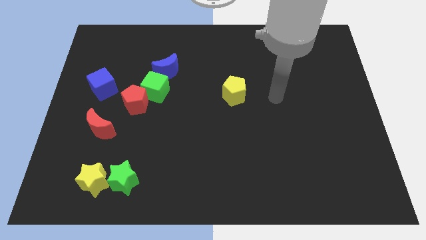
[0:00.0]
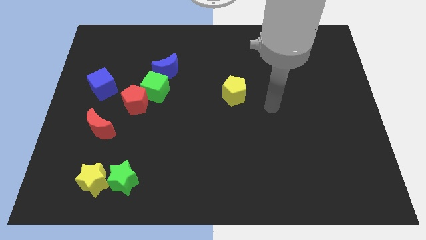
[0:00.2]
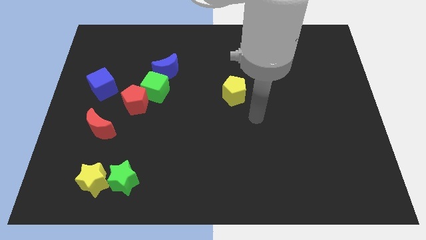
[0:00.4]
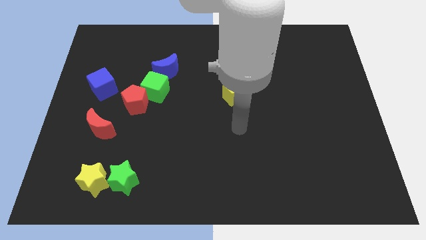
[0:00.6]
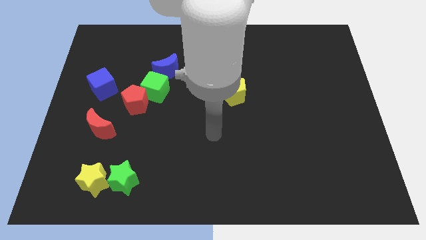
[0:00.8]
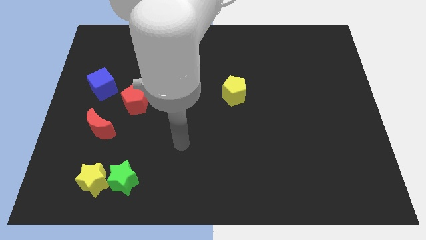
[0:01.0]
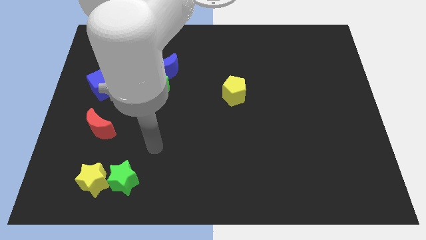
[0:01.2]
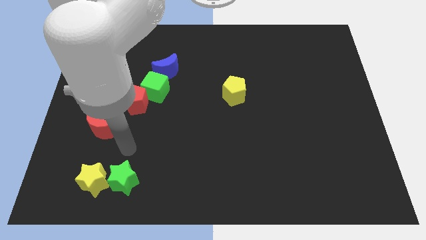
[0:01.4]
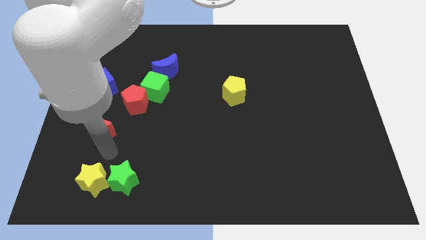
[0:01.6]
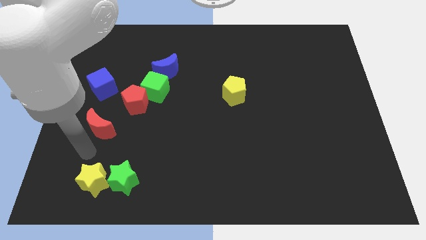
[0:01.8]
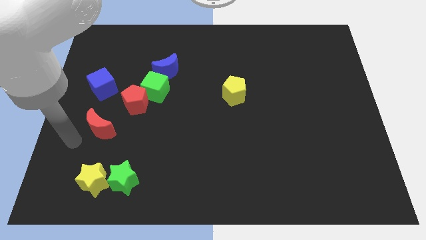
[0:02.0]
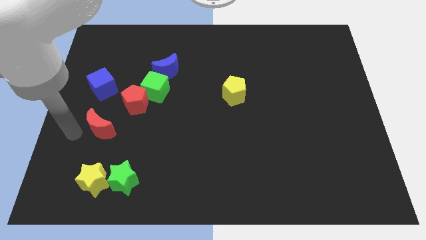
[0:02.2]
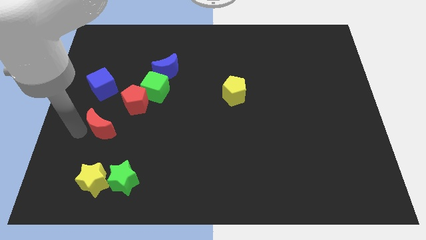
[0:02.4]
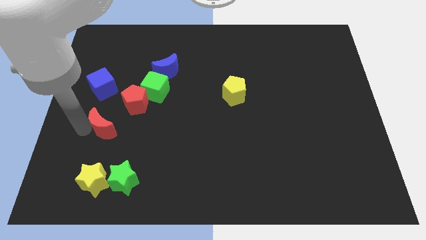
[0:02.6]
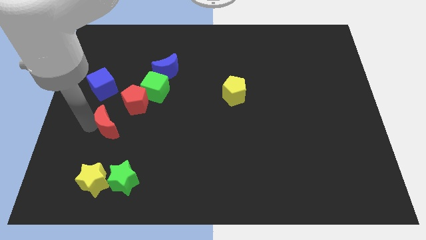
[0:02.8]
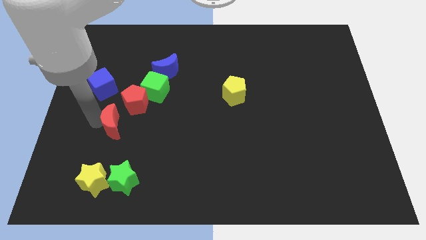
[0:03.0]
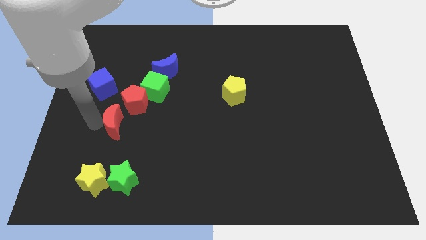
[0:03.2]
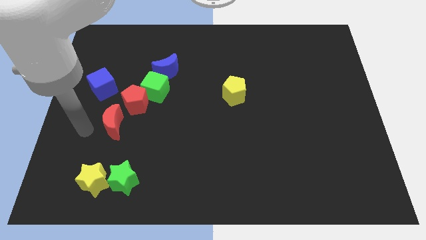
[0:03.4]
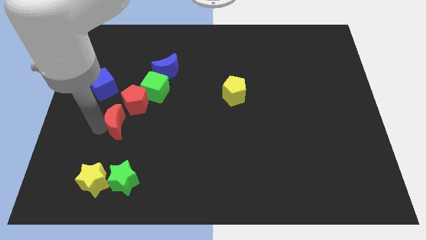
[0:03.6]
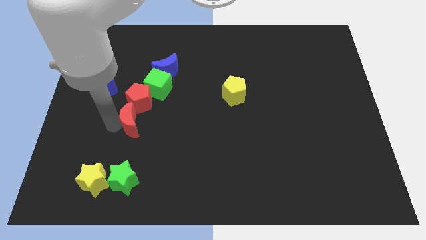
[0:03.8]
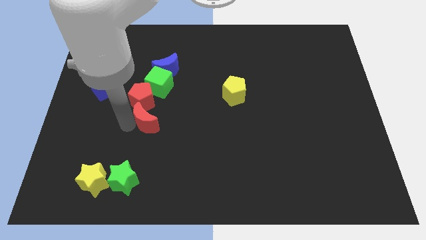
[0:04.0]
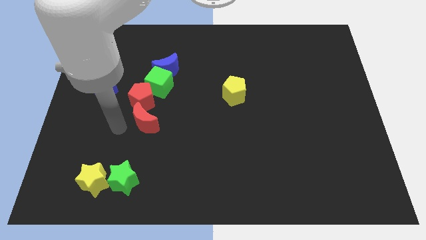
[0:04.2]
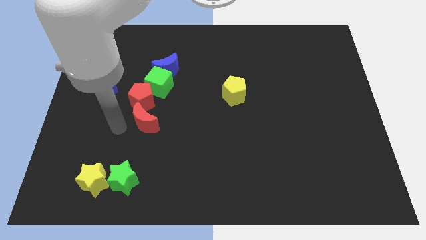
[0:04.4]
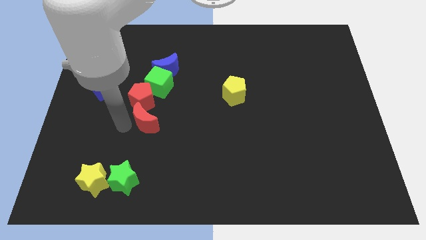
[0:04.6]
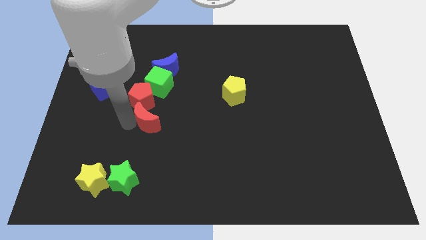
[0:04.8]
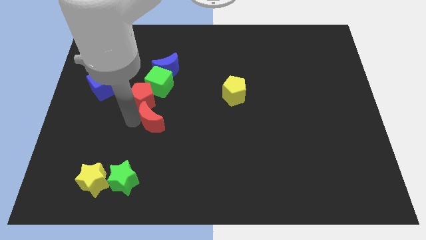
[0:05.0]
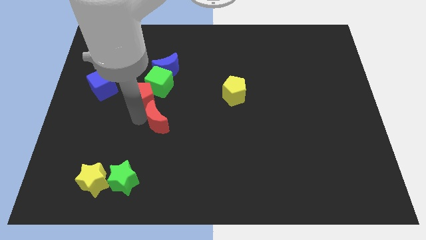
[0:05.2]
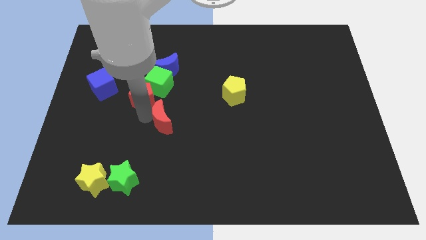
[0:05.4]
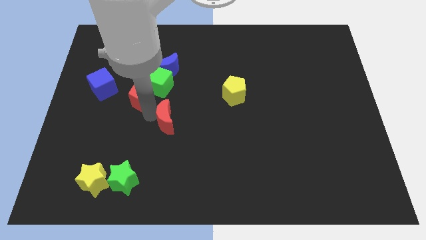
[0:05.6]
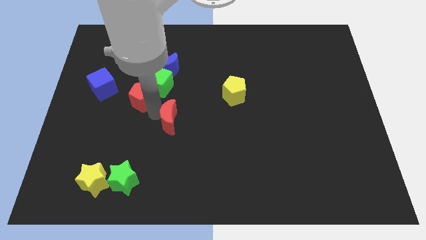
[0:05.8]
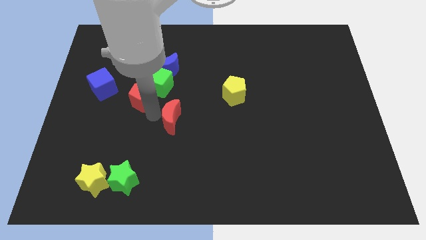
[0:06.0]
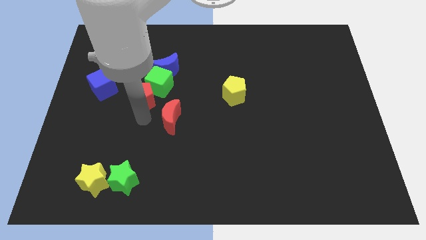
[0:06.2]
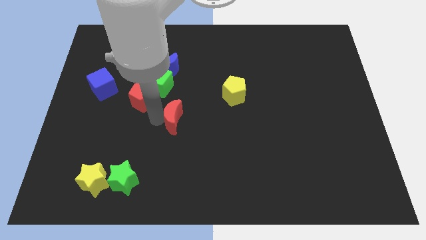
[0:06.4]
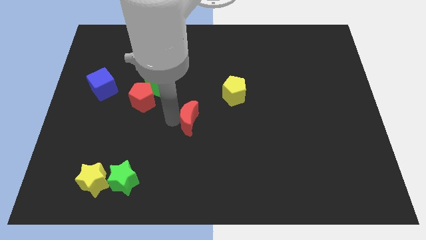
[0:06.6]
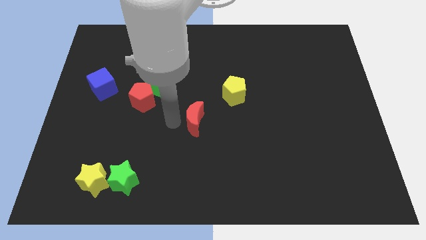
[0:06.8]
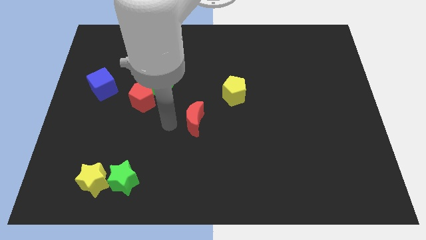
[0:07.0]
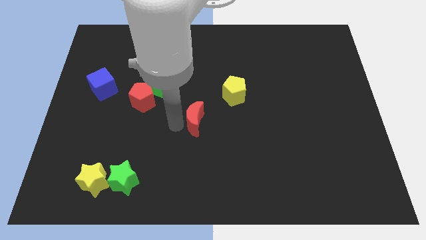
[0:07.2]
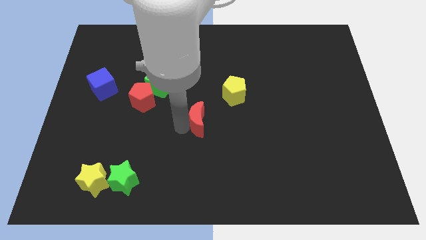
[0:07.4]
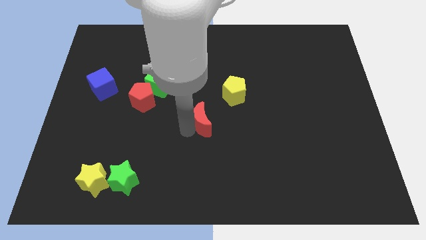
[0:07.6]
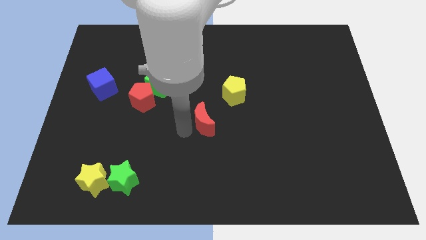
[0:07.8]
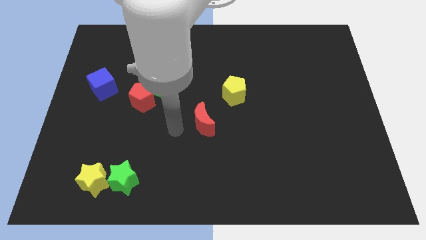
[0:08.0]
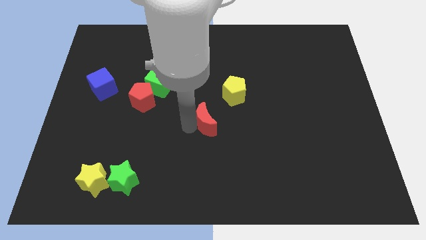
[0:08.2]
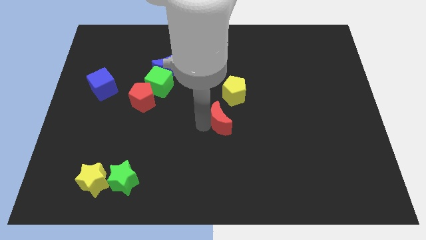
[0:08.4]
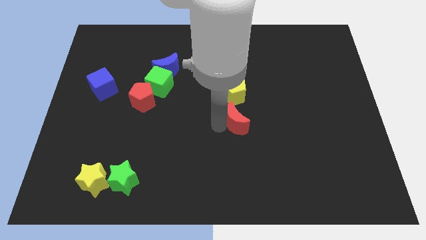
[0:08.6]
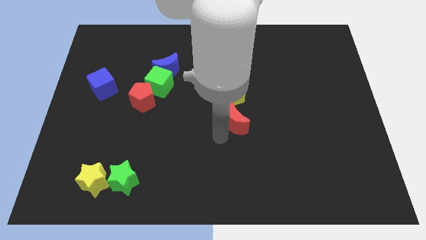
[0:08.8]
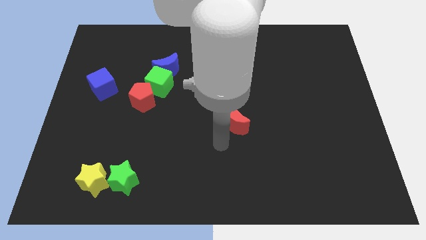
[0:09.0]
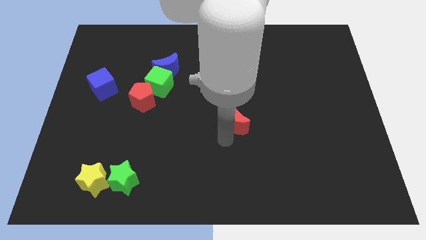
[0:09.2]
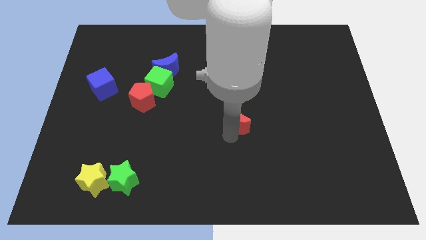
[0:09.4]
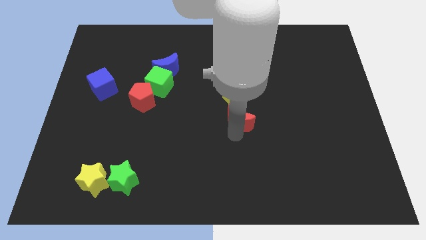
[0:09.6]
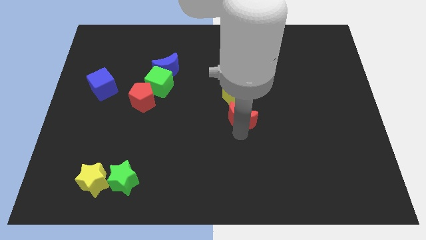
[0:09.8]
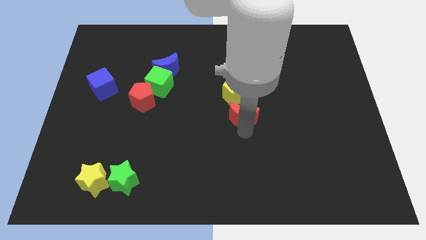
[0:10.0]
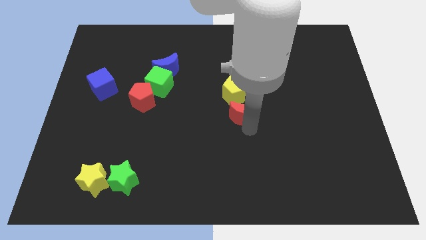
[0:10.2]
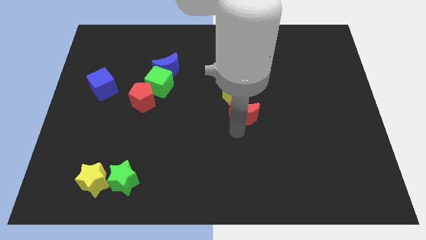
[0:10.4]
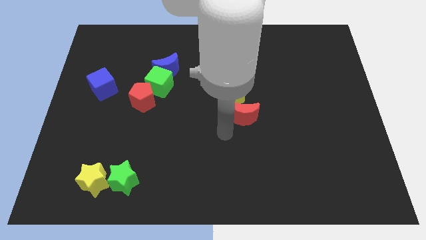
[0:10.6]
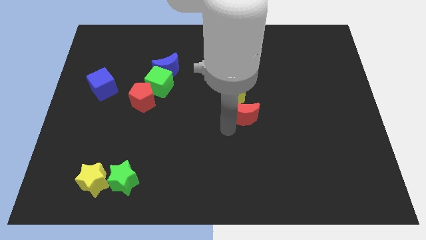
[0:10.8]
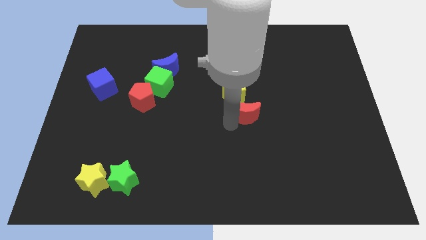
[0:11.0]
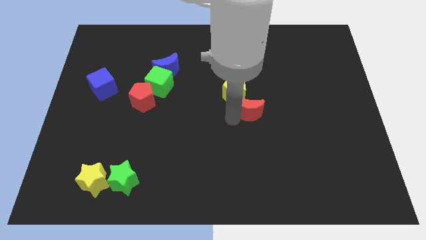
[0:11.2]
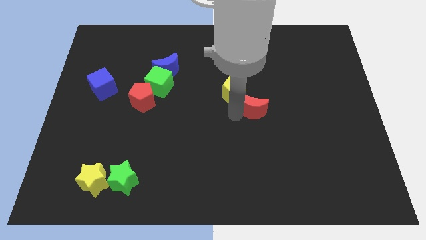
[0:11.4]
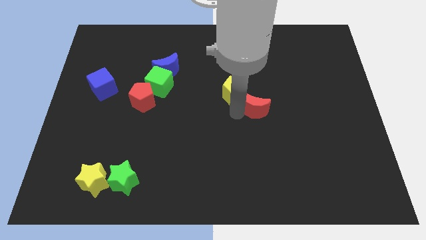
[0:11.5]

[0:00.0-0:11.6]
push the red moon to the right side of the yellow pentagon

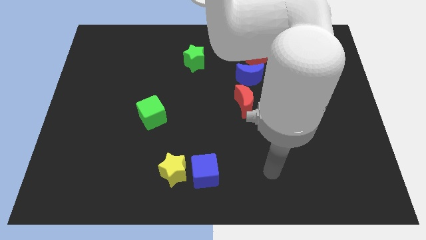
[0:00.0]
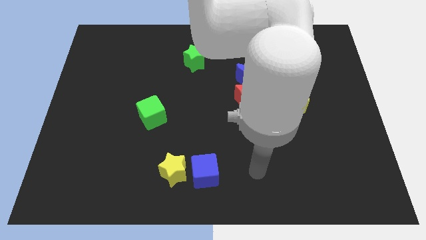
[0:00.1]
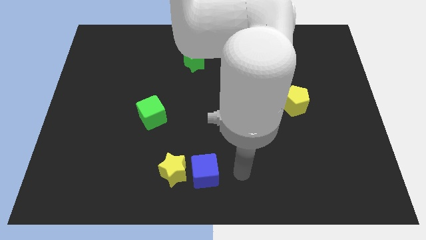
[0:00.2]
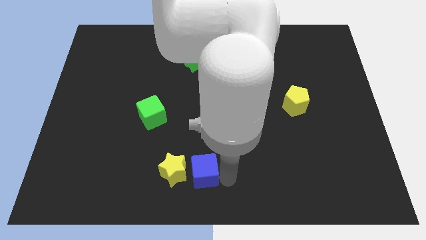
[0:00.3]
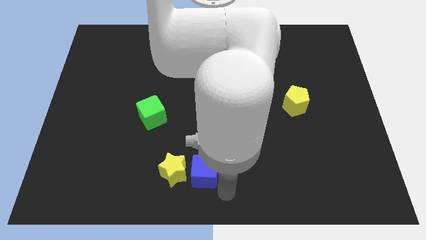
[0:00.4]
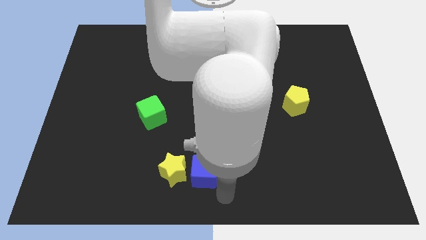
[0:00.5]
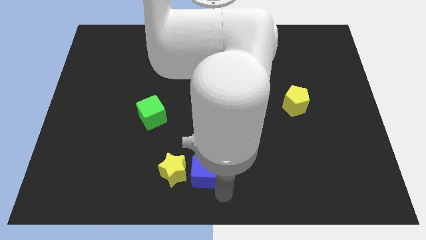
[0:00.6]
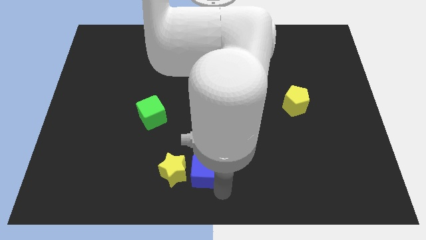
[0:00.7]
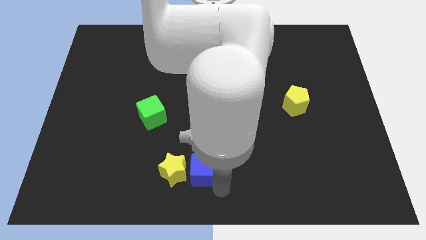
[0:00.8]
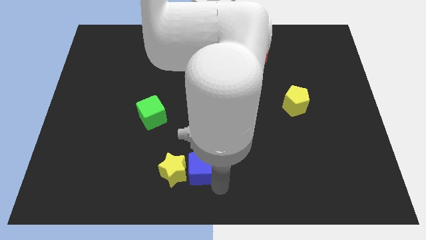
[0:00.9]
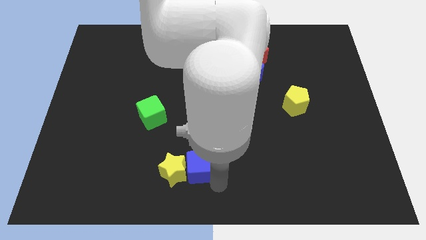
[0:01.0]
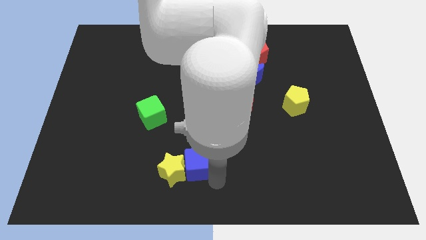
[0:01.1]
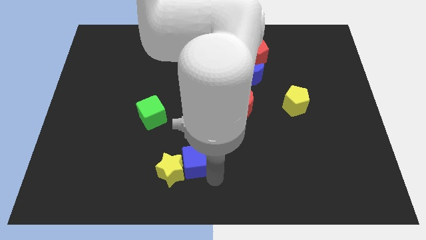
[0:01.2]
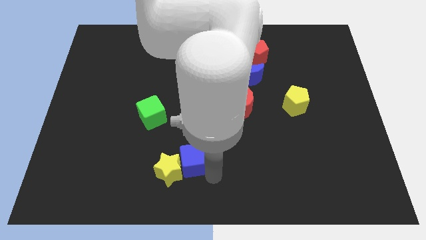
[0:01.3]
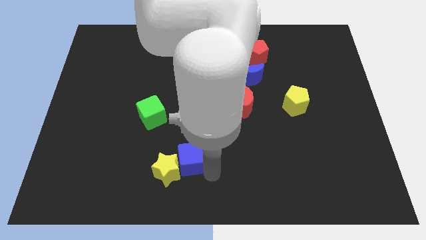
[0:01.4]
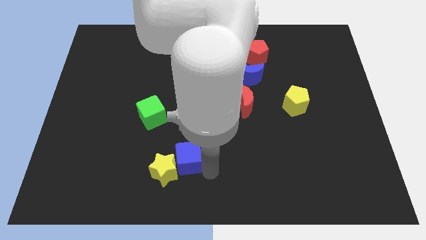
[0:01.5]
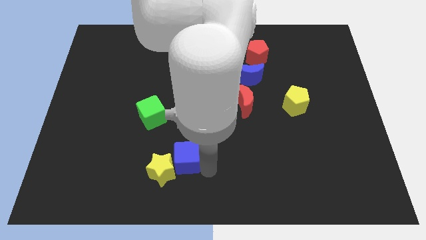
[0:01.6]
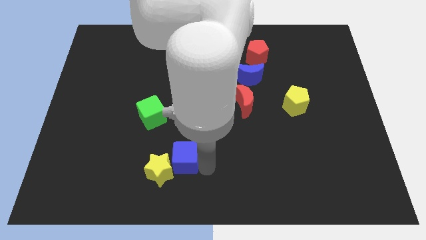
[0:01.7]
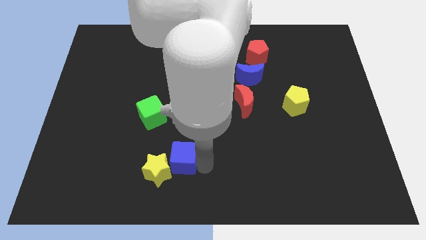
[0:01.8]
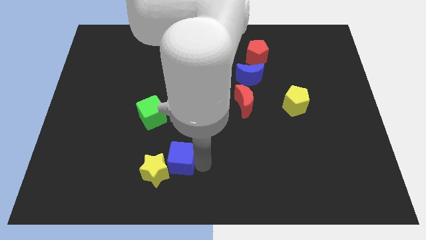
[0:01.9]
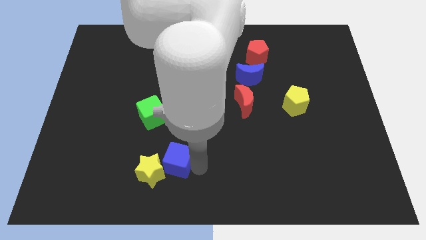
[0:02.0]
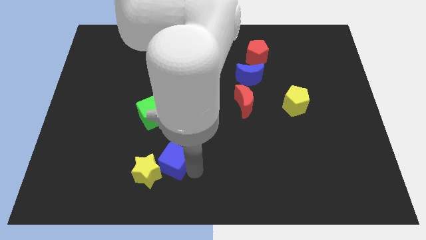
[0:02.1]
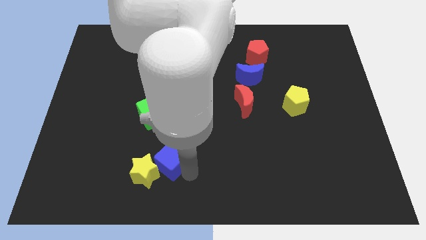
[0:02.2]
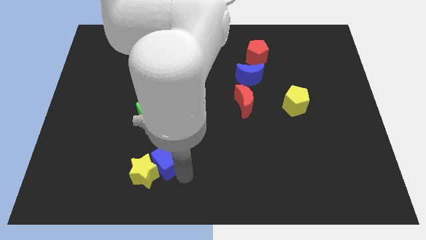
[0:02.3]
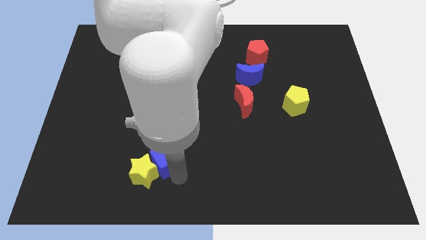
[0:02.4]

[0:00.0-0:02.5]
slide the blue cube above the yellow star
